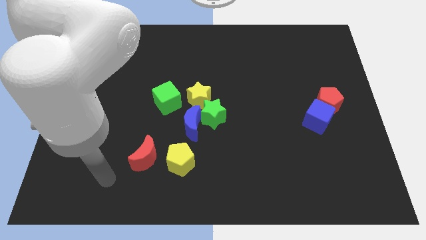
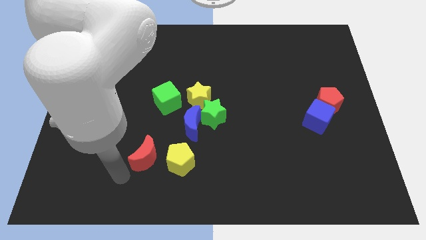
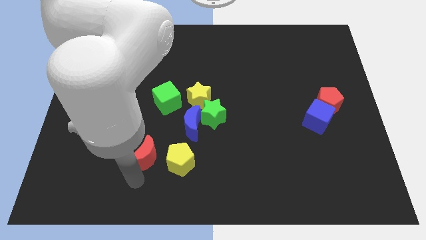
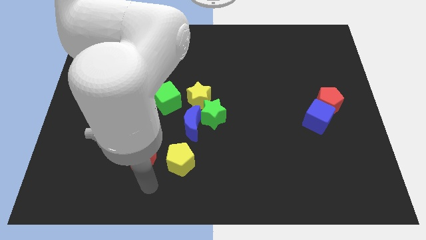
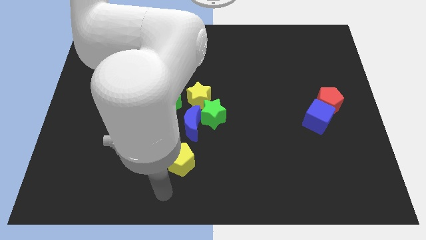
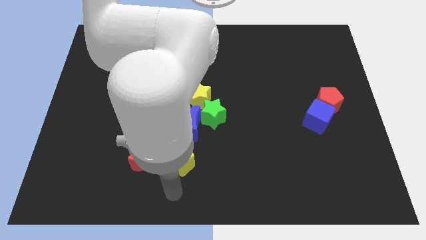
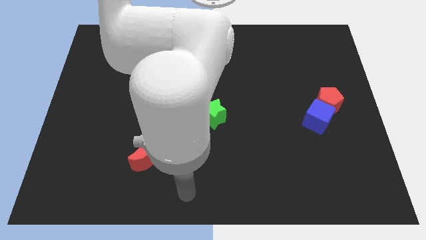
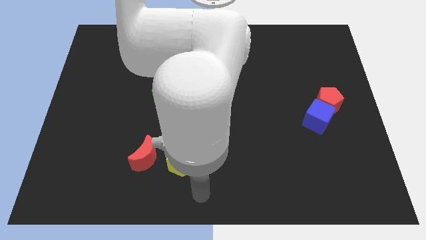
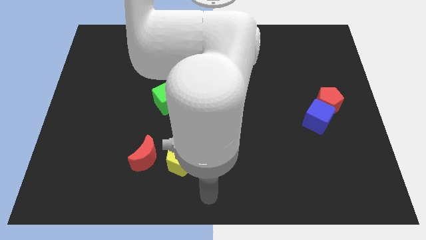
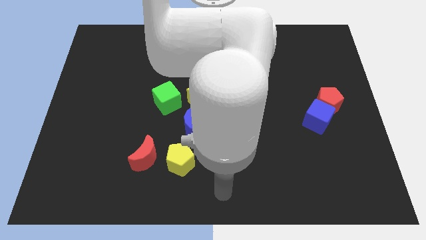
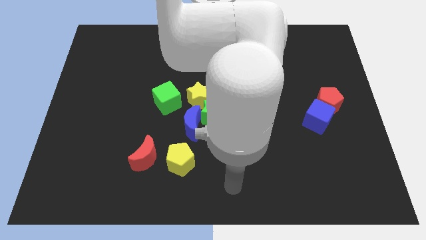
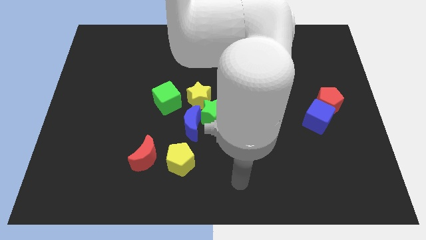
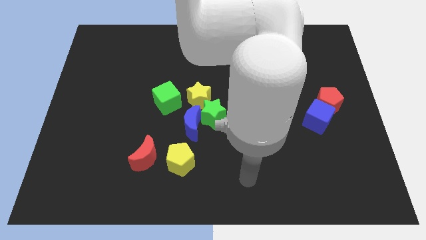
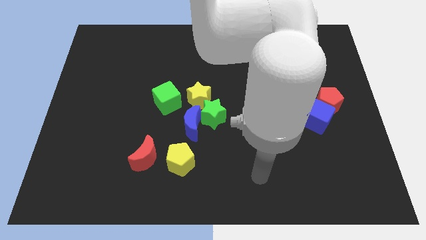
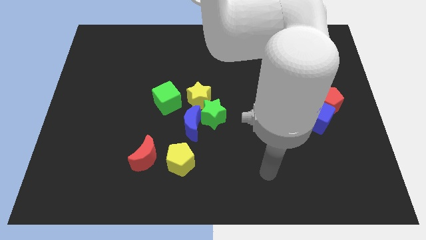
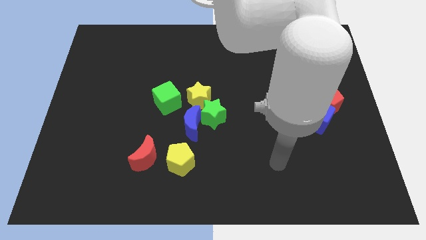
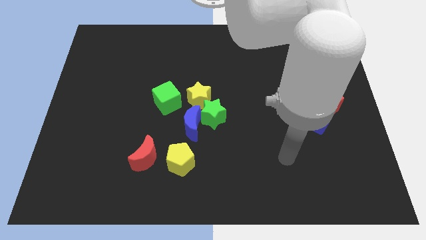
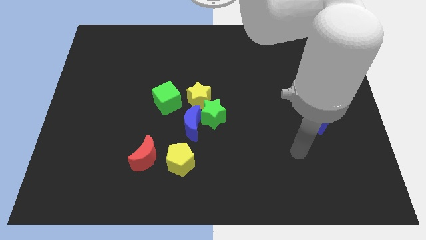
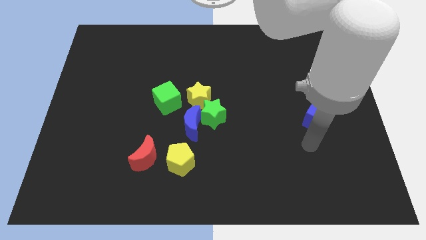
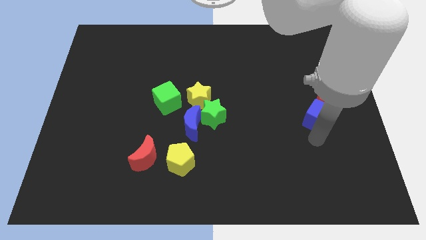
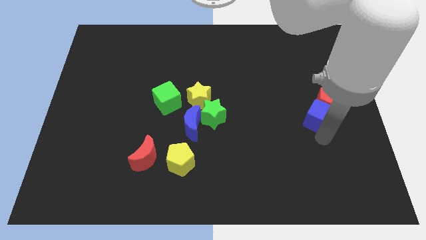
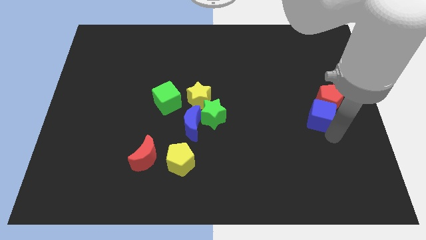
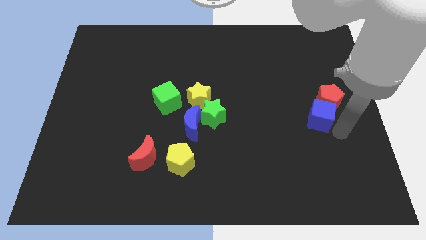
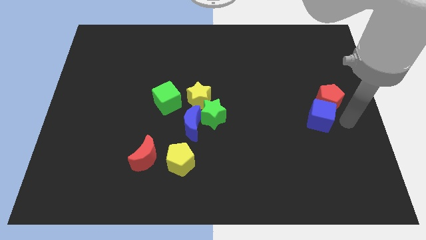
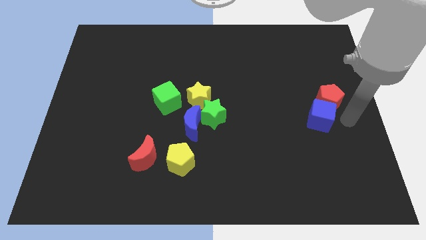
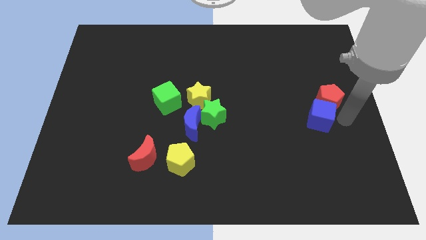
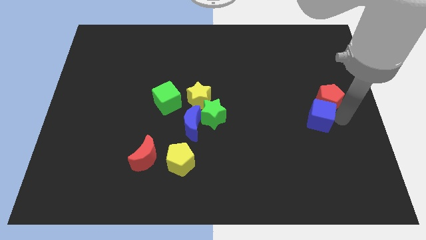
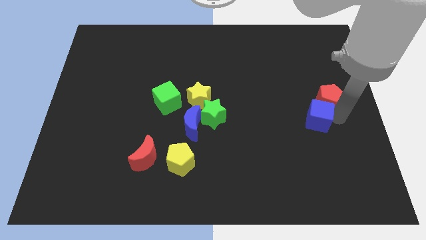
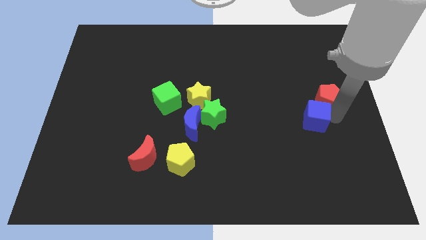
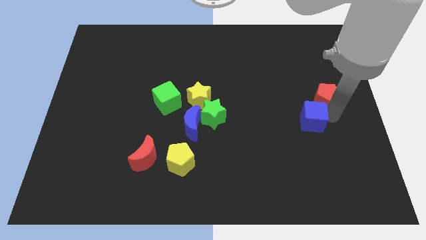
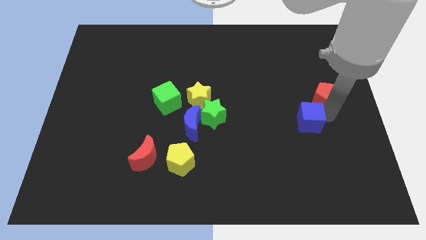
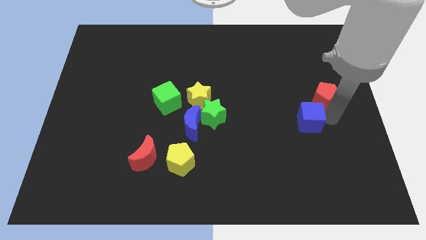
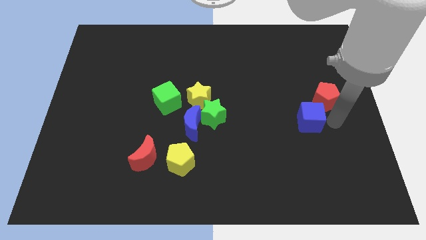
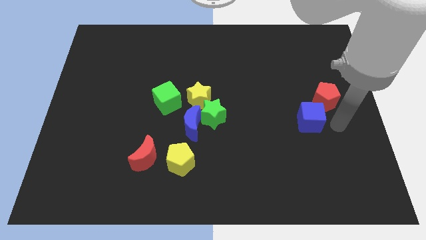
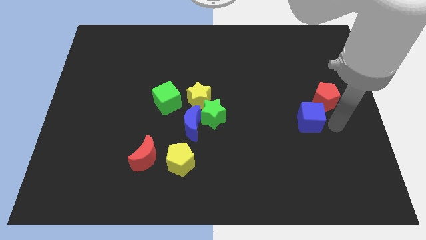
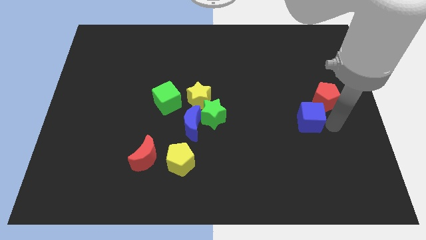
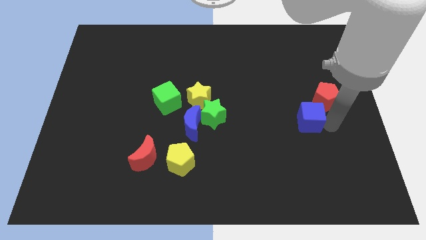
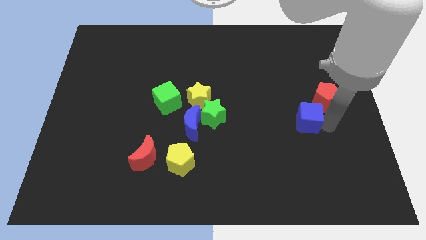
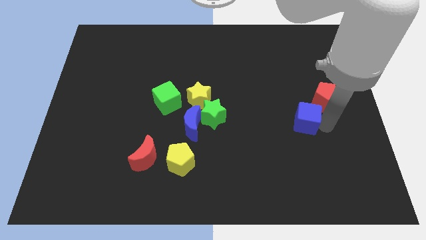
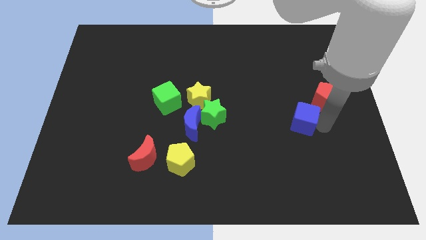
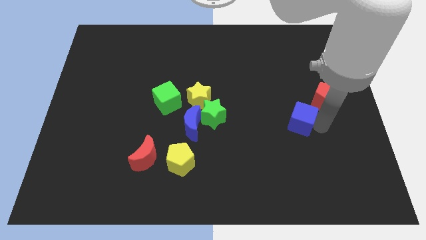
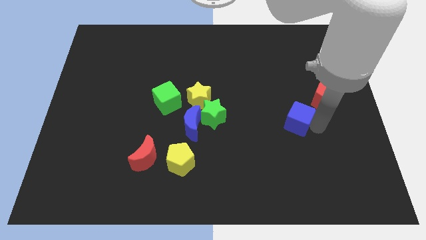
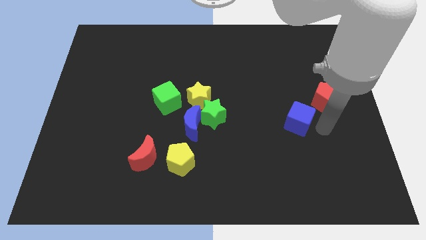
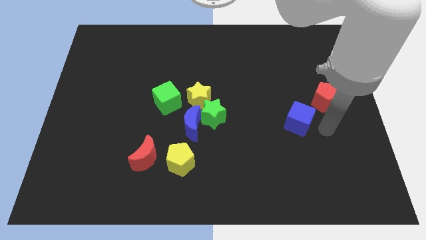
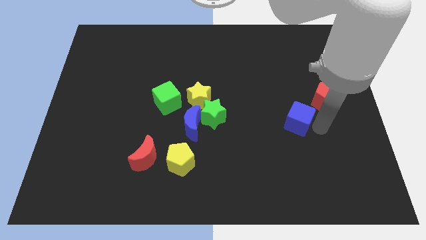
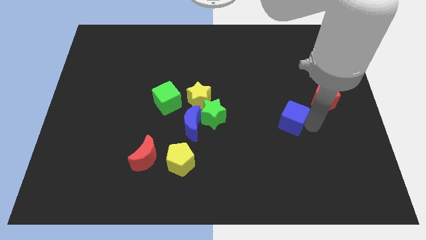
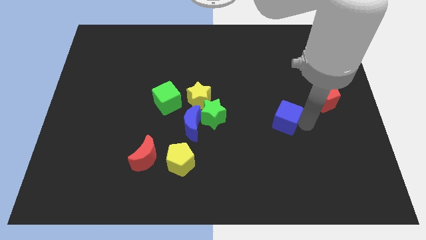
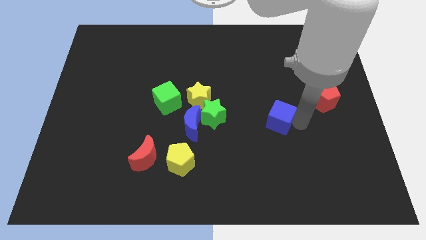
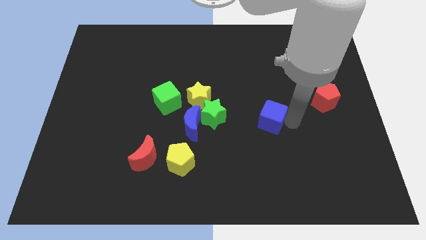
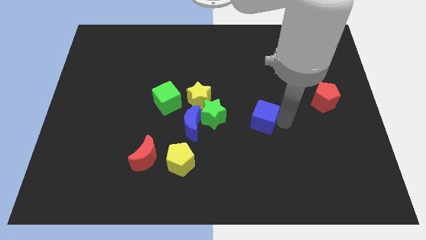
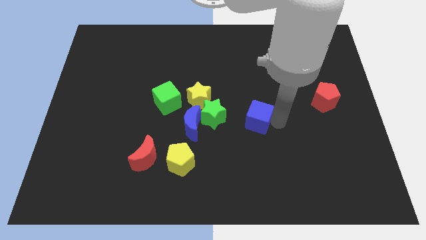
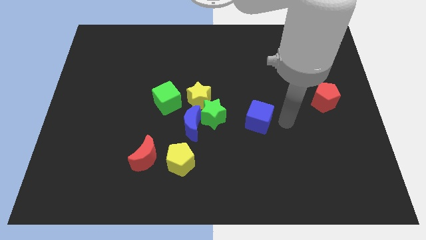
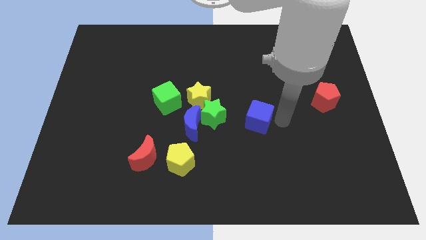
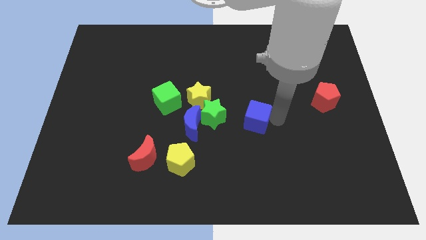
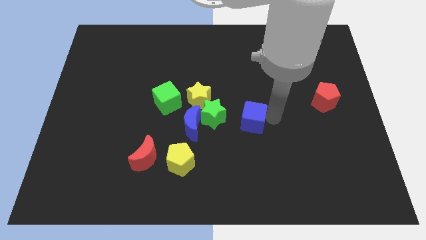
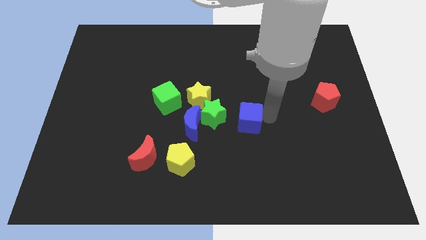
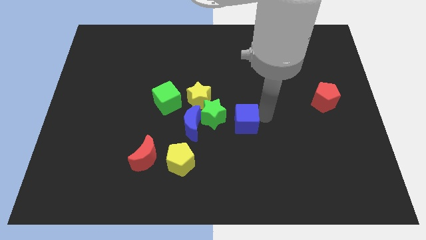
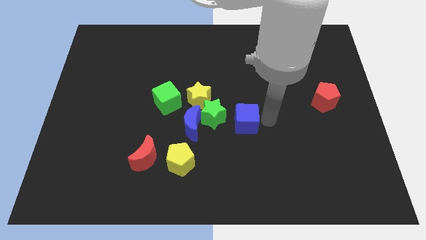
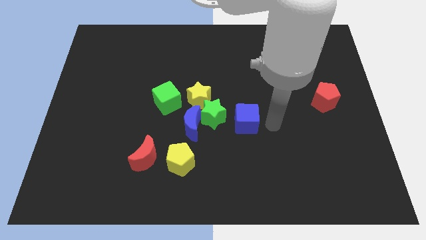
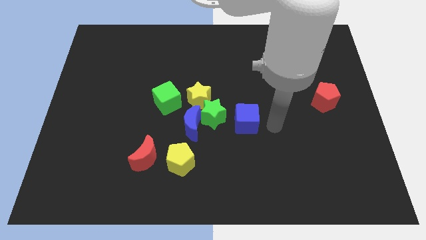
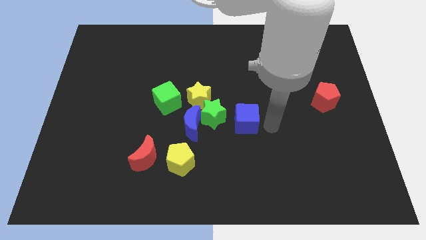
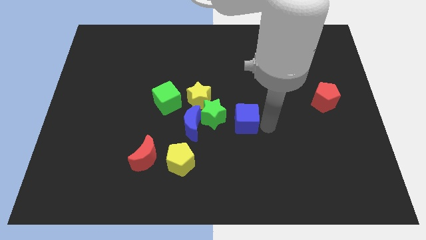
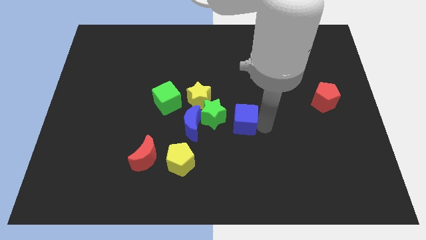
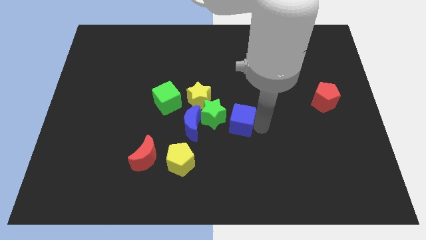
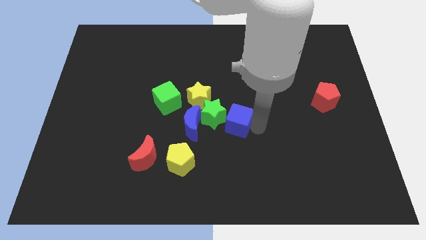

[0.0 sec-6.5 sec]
push the blue cube to the green star

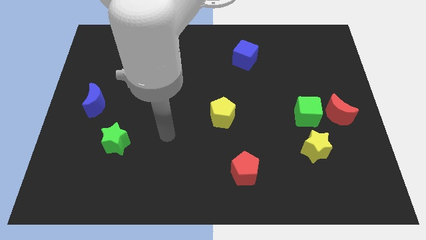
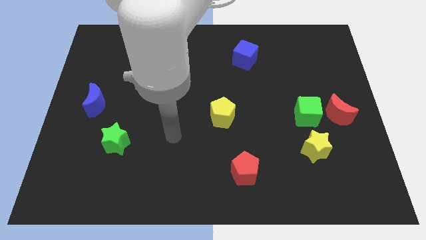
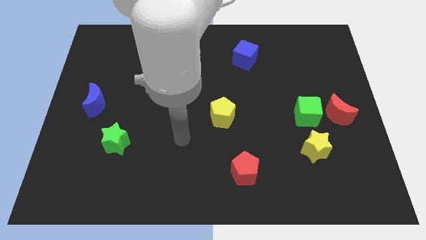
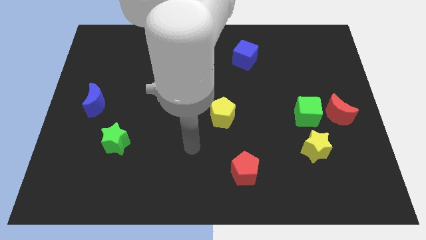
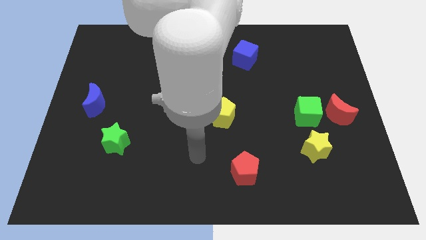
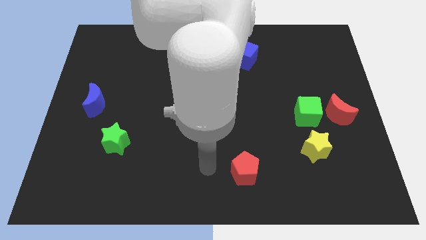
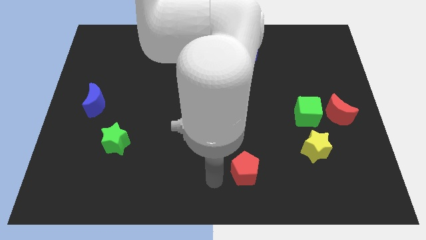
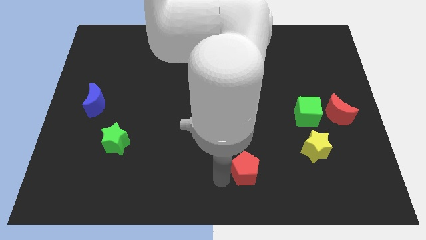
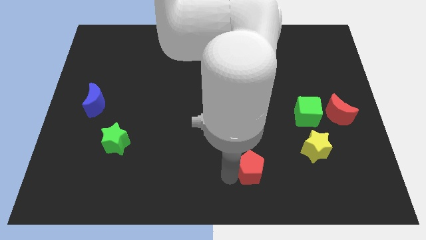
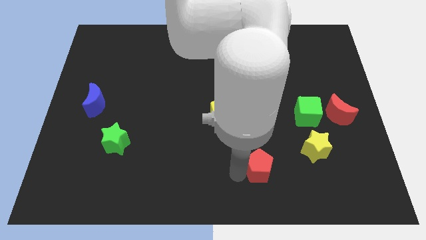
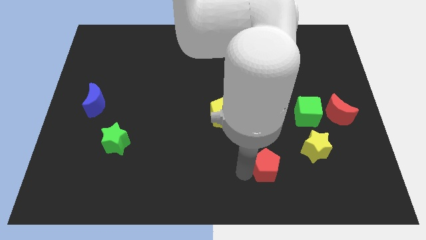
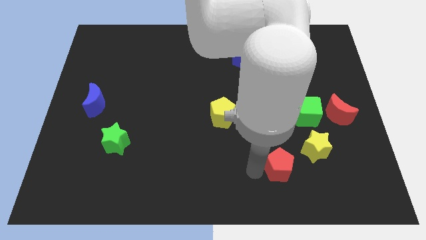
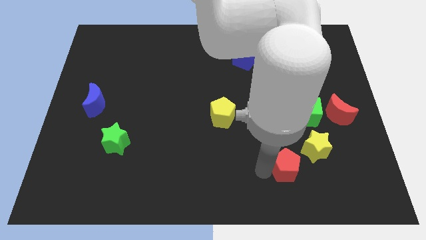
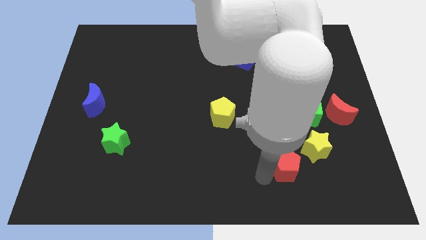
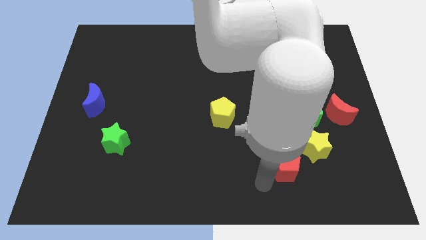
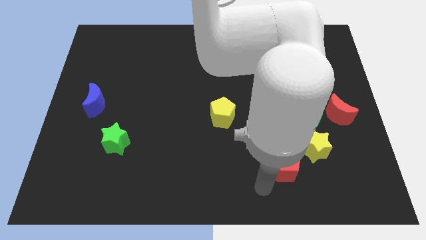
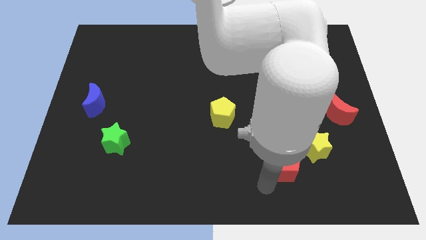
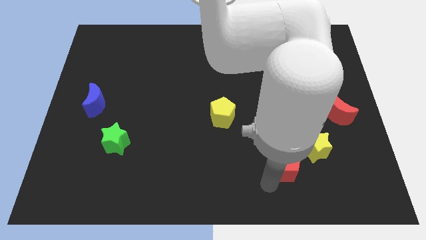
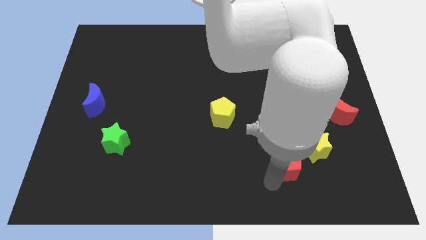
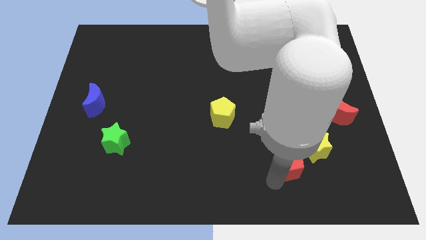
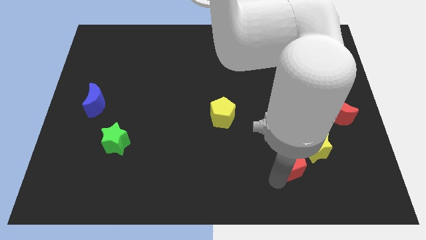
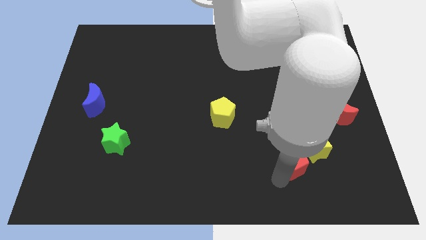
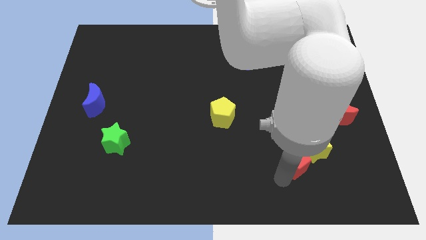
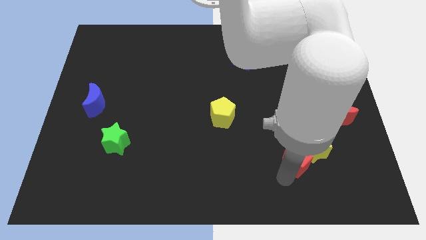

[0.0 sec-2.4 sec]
slide the red pentagon close to the yellow star
